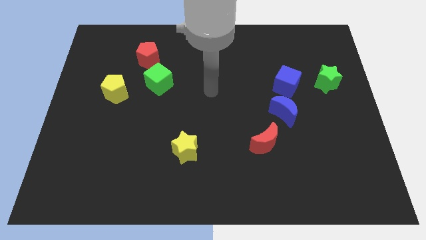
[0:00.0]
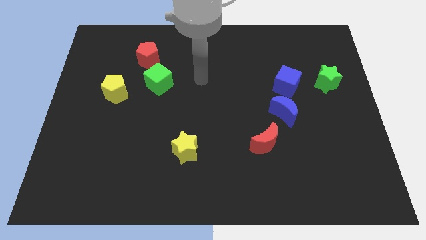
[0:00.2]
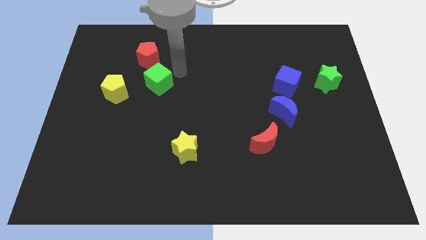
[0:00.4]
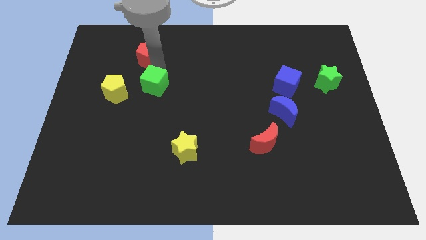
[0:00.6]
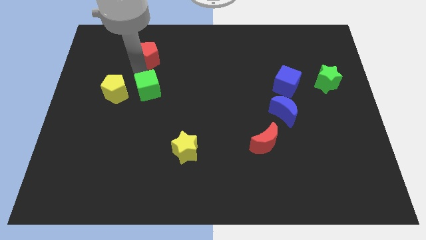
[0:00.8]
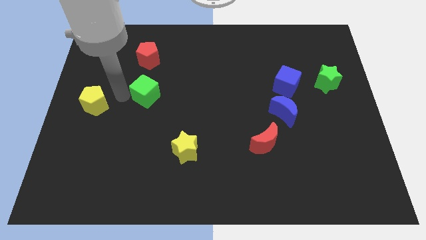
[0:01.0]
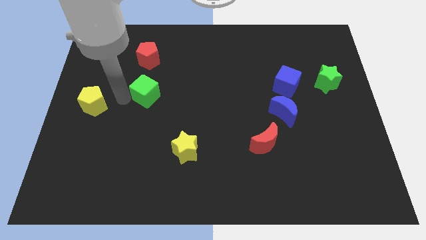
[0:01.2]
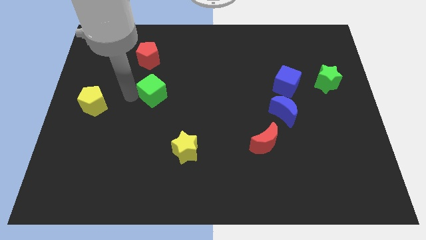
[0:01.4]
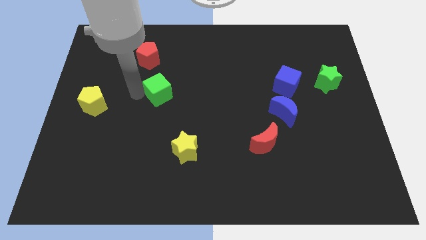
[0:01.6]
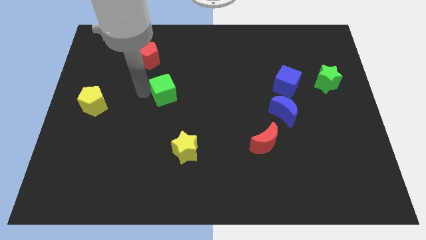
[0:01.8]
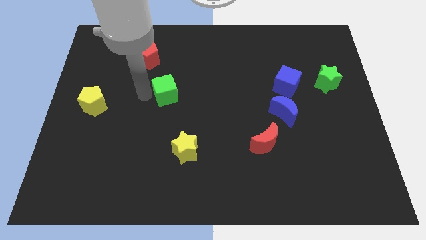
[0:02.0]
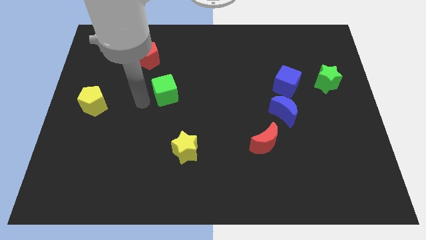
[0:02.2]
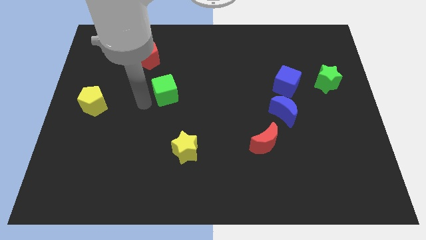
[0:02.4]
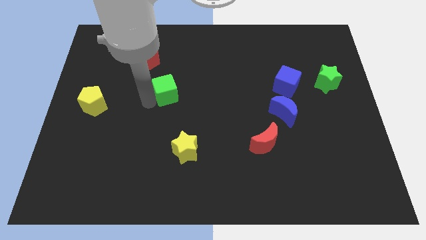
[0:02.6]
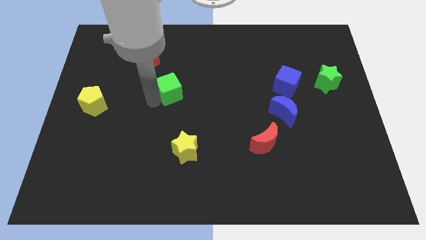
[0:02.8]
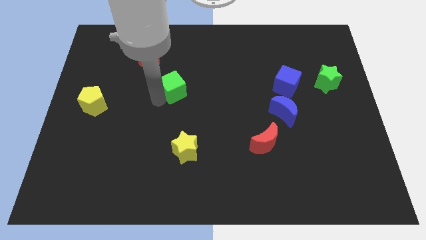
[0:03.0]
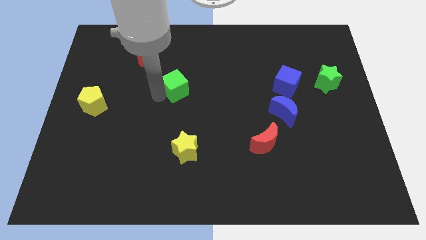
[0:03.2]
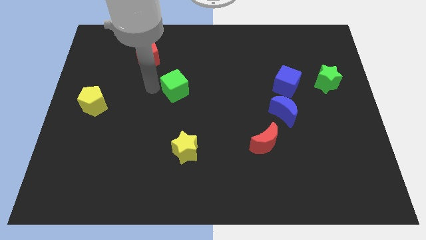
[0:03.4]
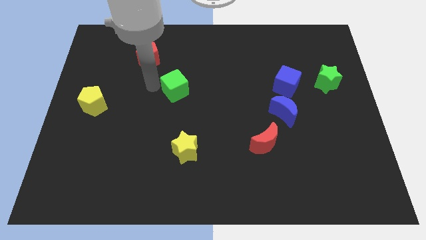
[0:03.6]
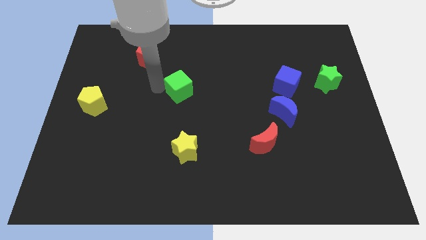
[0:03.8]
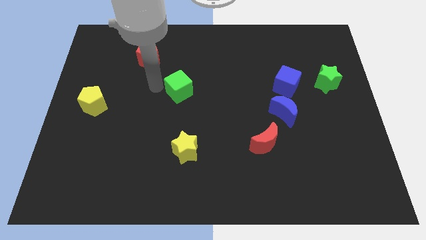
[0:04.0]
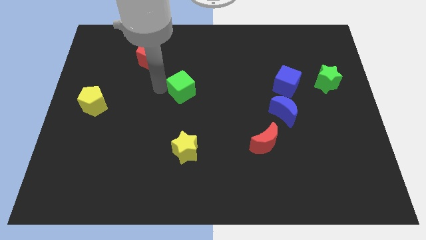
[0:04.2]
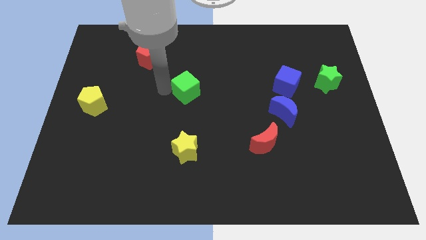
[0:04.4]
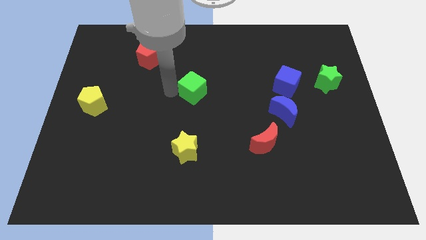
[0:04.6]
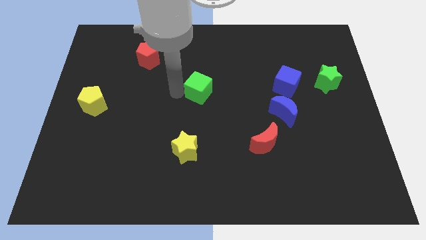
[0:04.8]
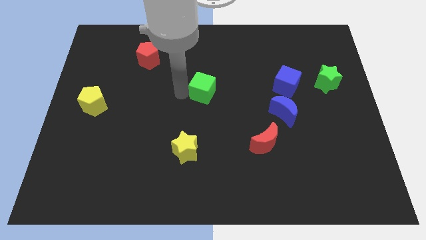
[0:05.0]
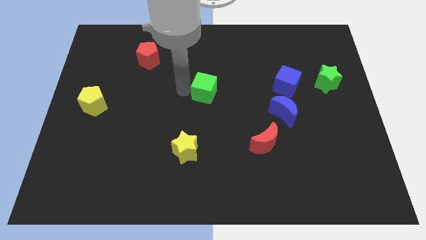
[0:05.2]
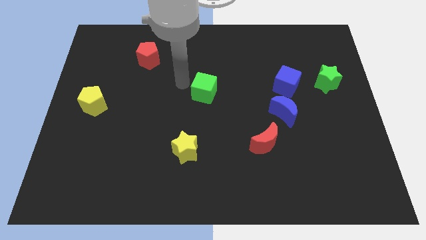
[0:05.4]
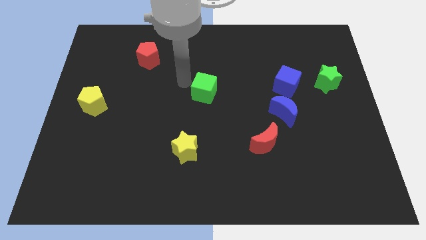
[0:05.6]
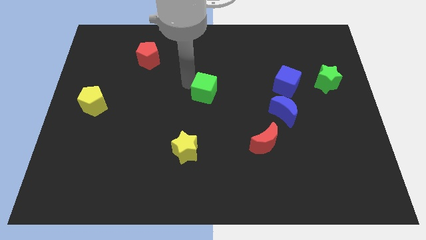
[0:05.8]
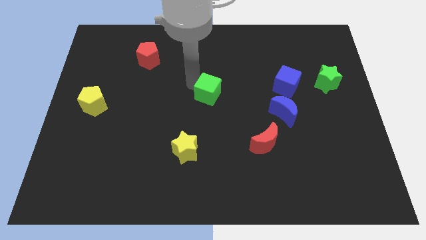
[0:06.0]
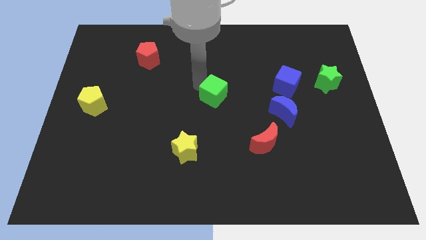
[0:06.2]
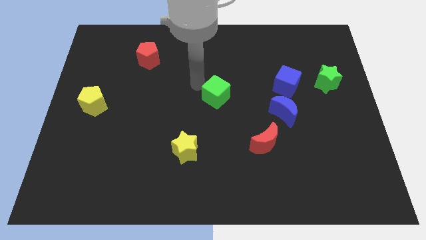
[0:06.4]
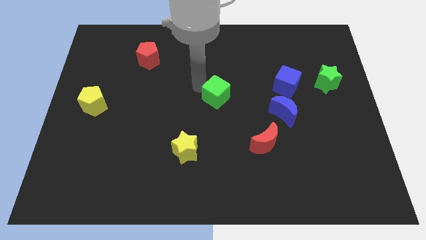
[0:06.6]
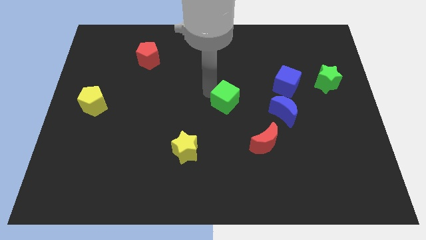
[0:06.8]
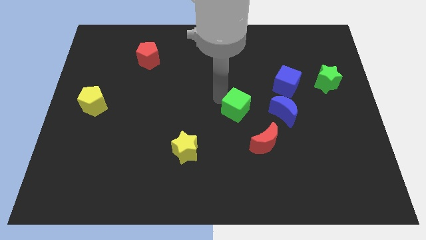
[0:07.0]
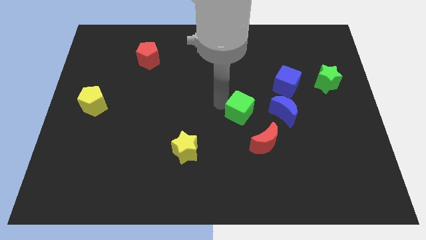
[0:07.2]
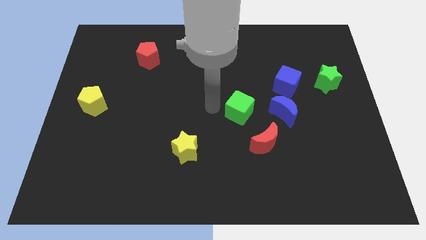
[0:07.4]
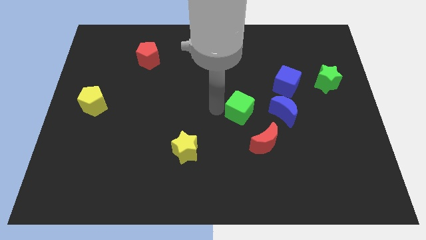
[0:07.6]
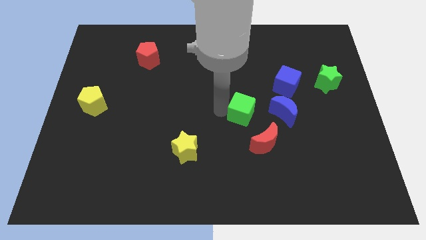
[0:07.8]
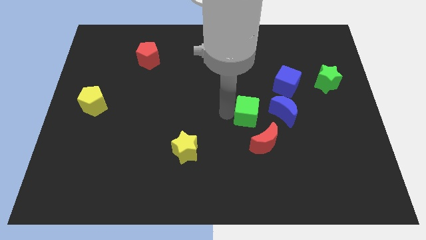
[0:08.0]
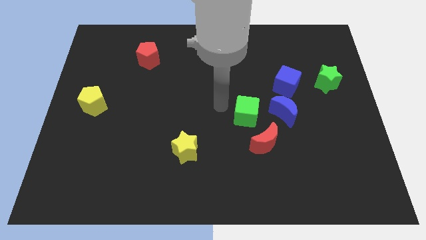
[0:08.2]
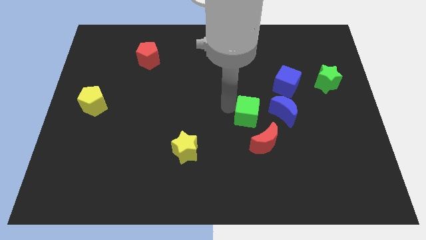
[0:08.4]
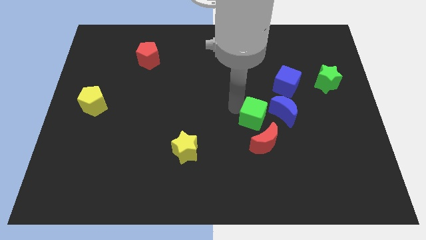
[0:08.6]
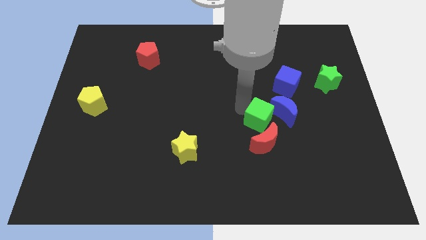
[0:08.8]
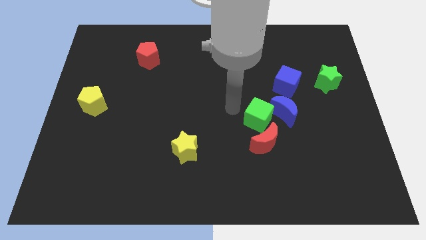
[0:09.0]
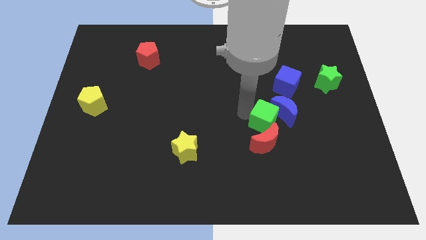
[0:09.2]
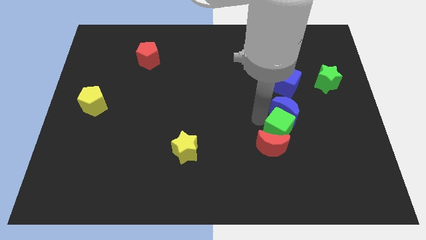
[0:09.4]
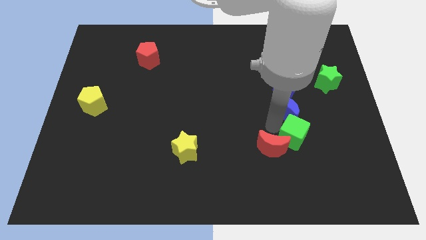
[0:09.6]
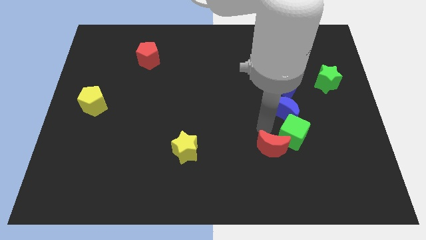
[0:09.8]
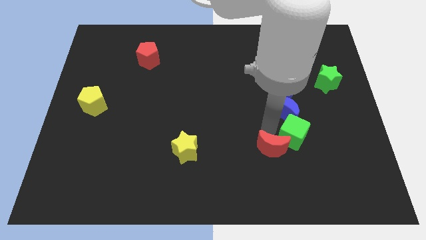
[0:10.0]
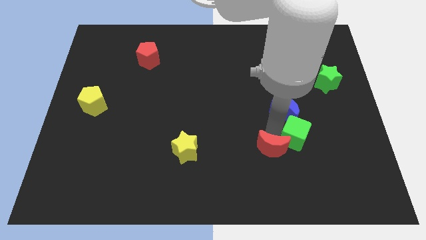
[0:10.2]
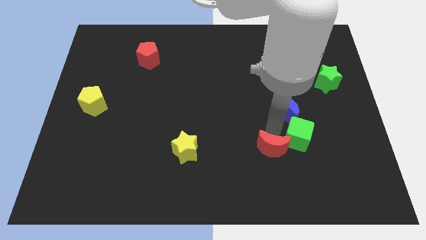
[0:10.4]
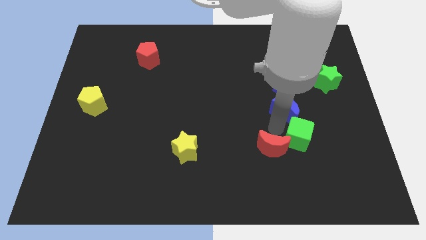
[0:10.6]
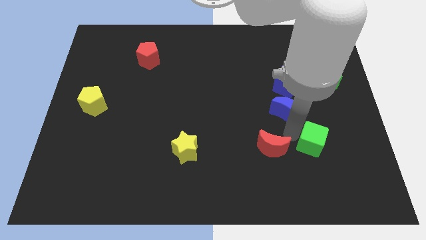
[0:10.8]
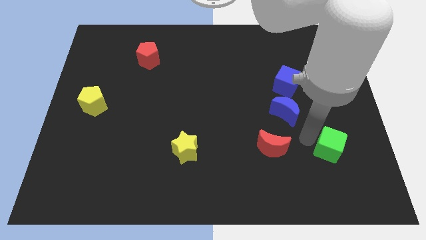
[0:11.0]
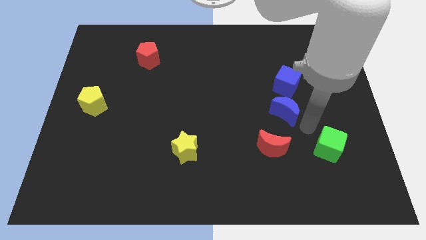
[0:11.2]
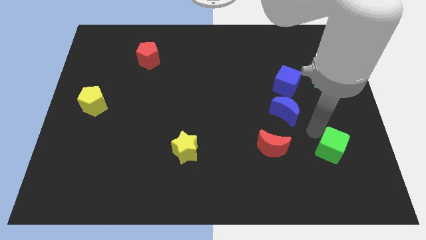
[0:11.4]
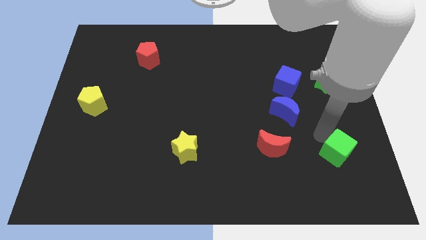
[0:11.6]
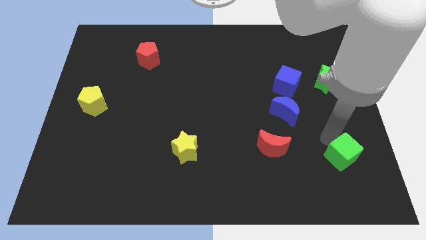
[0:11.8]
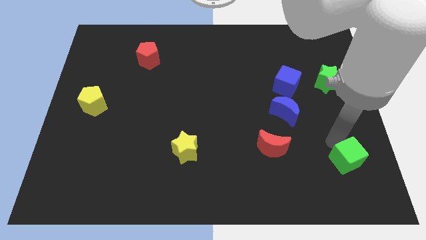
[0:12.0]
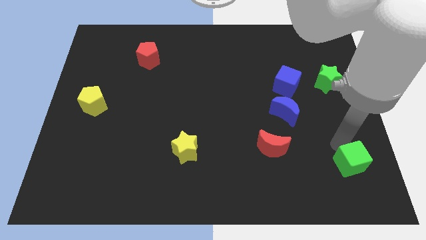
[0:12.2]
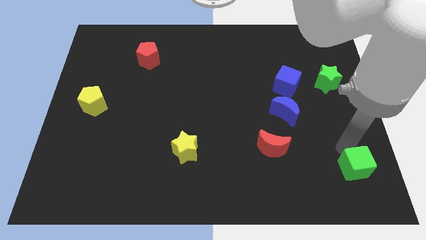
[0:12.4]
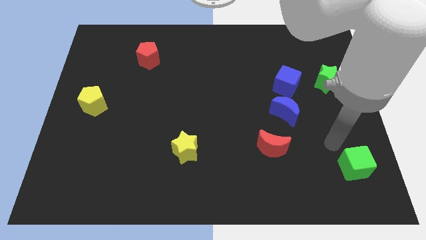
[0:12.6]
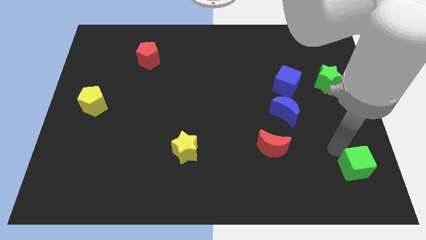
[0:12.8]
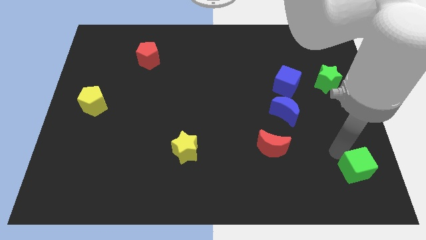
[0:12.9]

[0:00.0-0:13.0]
push the green cube to the bottom right
